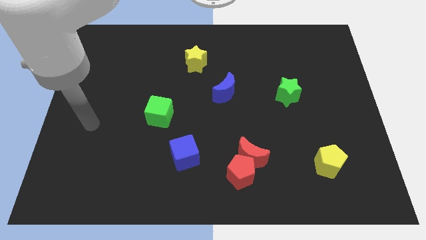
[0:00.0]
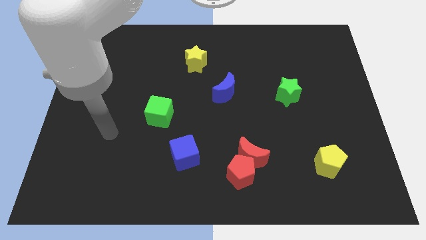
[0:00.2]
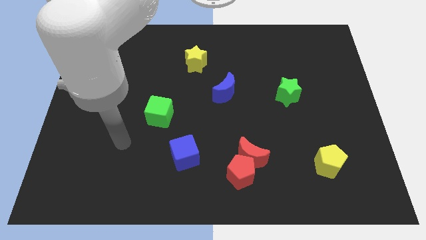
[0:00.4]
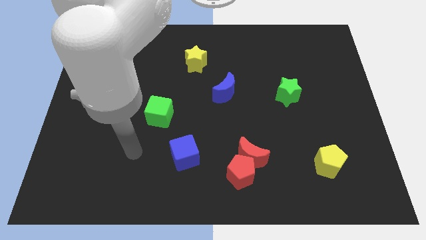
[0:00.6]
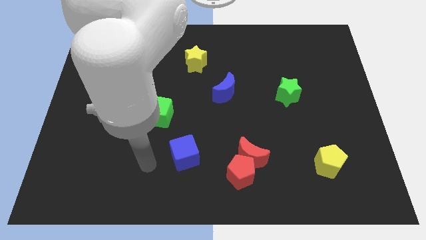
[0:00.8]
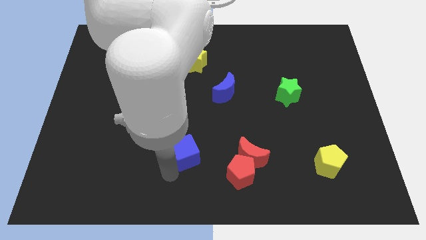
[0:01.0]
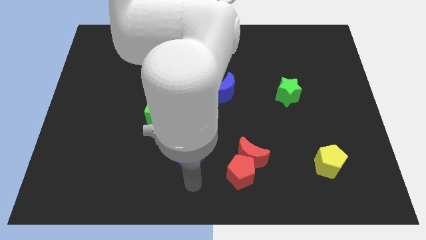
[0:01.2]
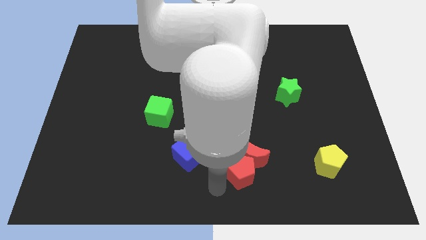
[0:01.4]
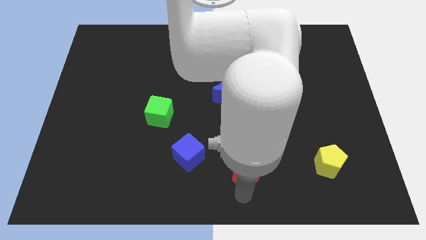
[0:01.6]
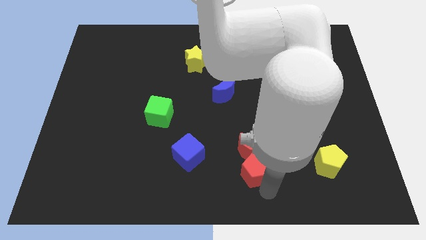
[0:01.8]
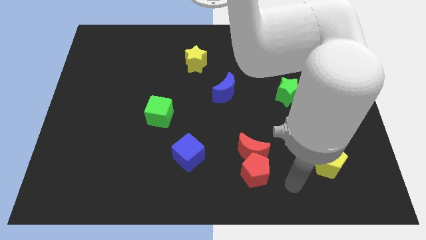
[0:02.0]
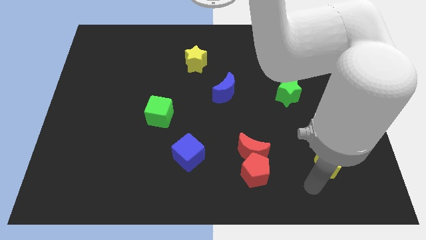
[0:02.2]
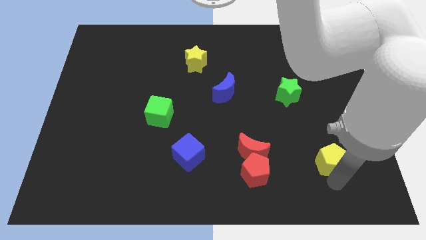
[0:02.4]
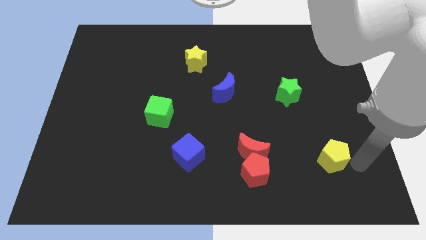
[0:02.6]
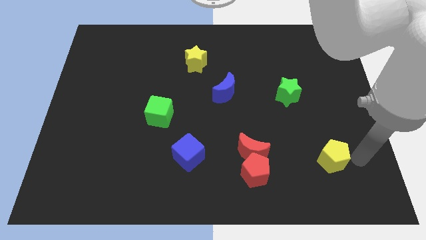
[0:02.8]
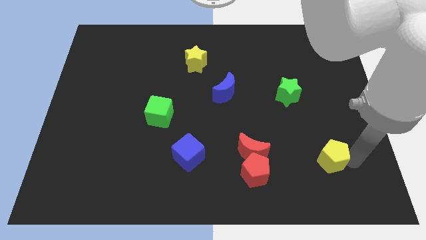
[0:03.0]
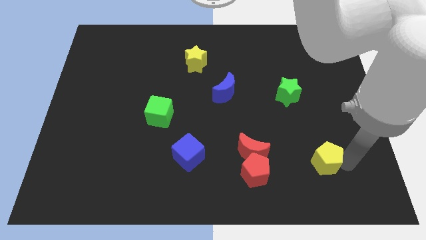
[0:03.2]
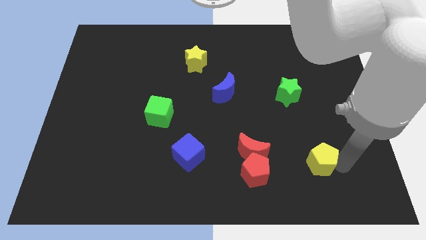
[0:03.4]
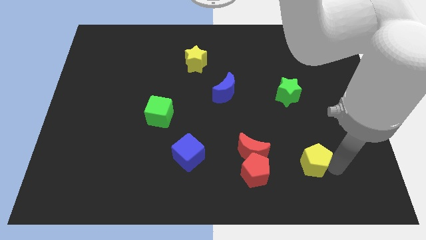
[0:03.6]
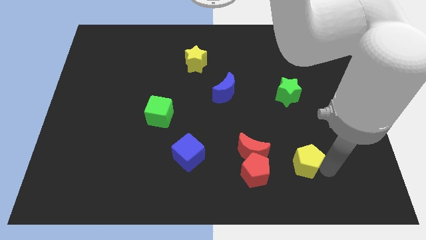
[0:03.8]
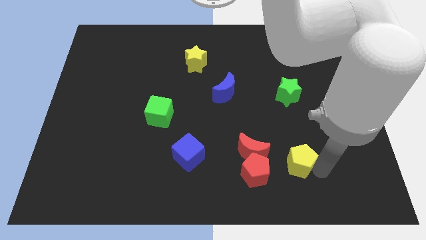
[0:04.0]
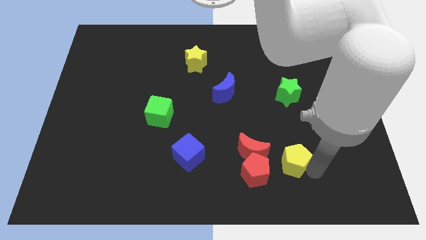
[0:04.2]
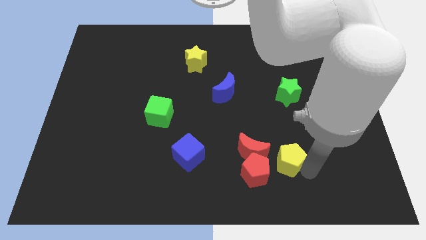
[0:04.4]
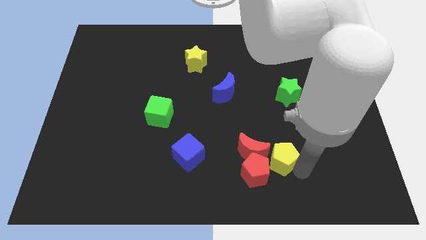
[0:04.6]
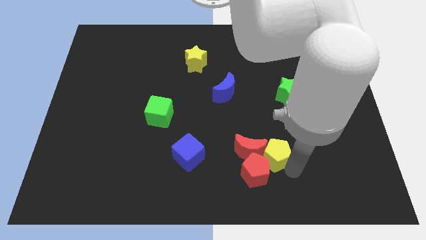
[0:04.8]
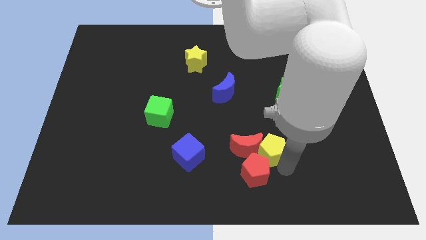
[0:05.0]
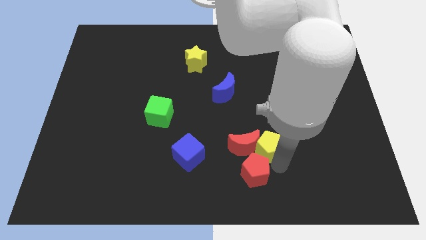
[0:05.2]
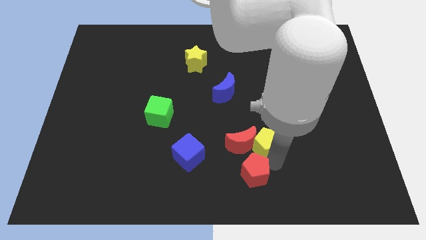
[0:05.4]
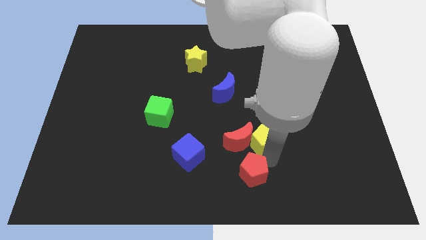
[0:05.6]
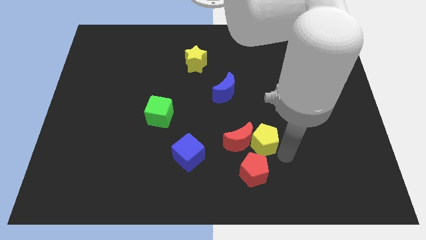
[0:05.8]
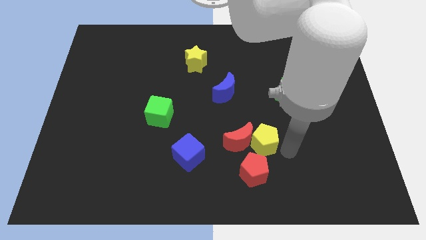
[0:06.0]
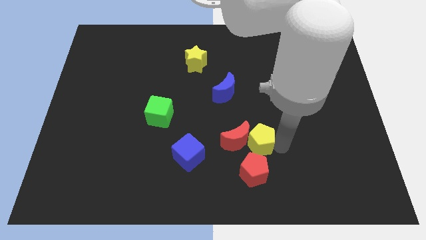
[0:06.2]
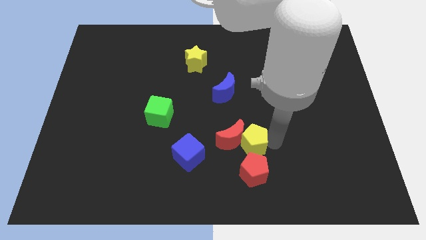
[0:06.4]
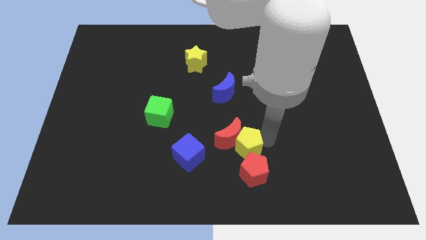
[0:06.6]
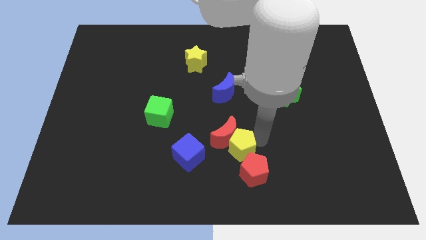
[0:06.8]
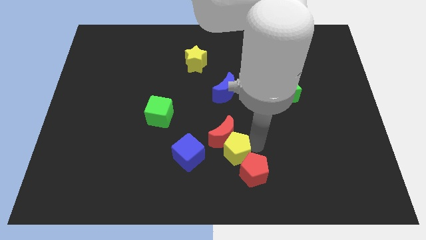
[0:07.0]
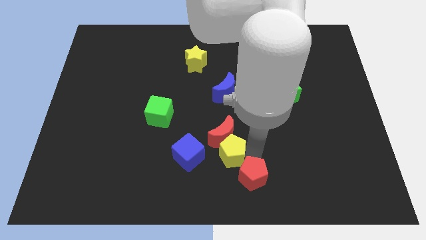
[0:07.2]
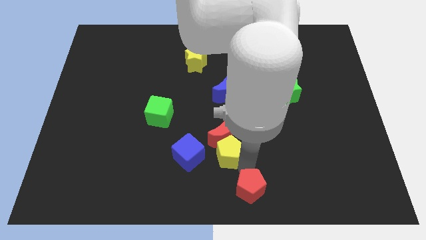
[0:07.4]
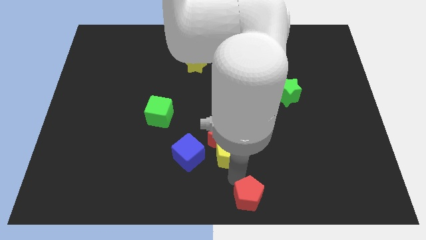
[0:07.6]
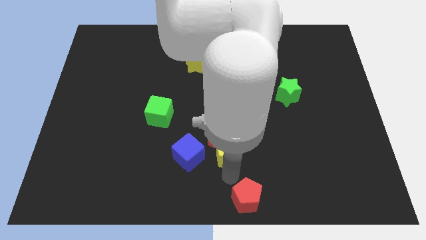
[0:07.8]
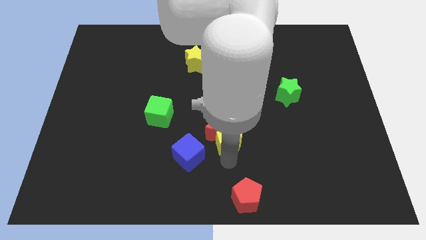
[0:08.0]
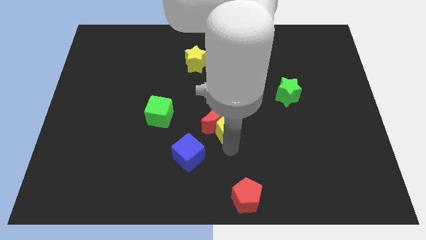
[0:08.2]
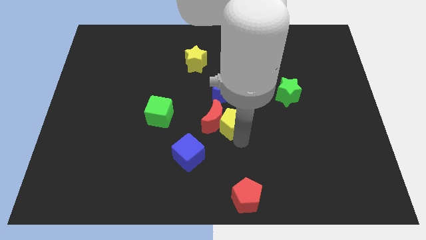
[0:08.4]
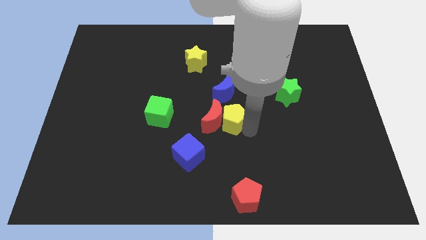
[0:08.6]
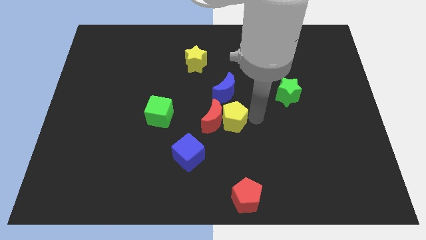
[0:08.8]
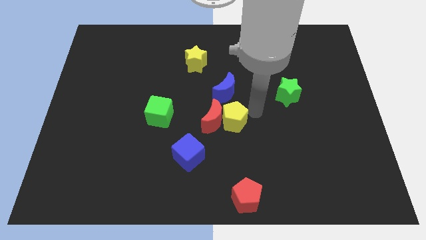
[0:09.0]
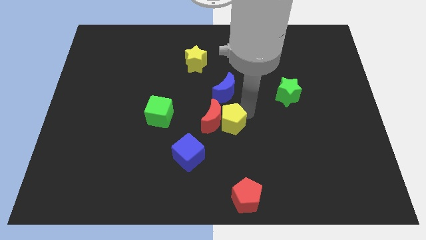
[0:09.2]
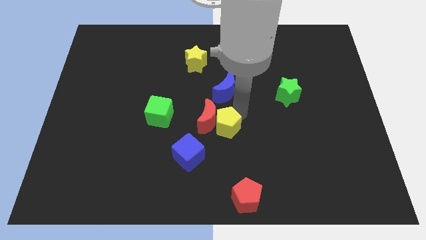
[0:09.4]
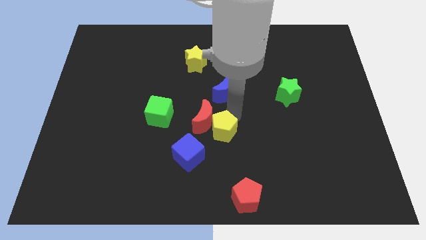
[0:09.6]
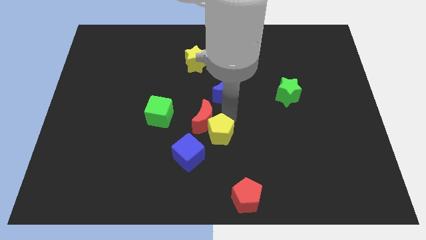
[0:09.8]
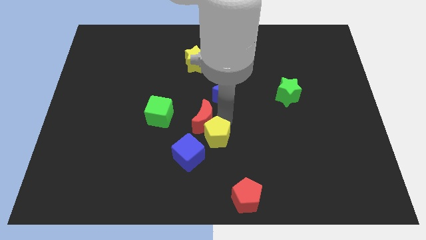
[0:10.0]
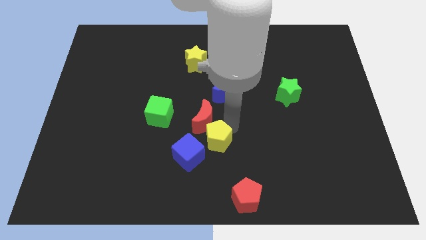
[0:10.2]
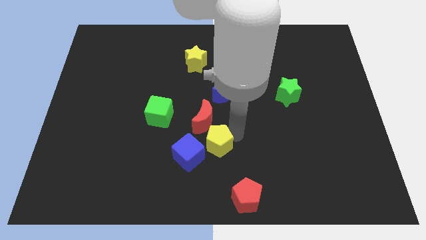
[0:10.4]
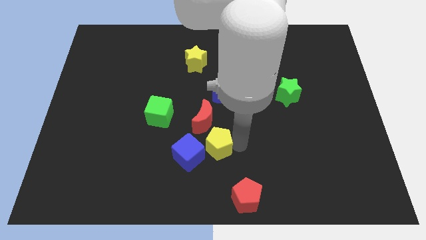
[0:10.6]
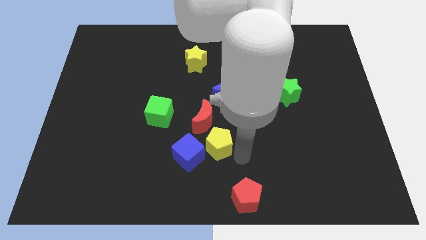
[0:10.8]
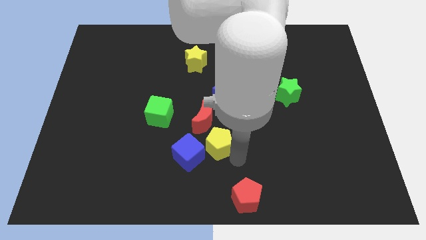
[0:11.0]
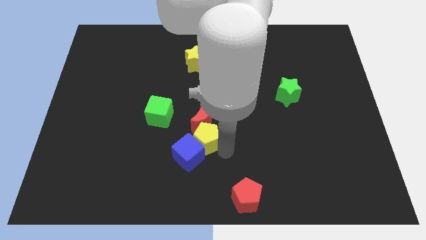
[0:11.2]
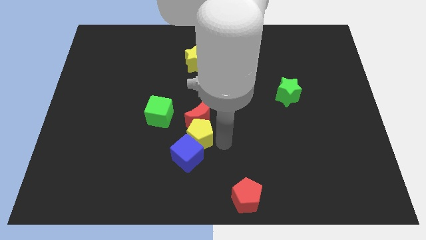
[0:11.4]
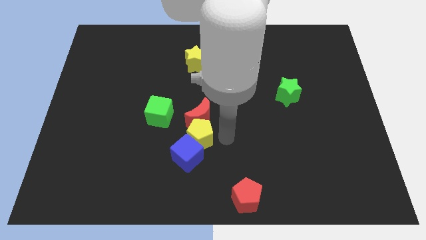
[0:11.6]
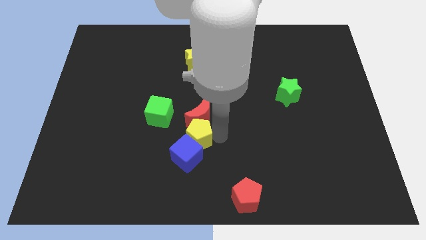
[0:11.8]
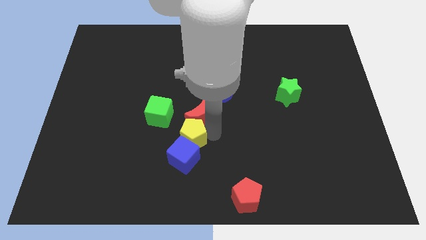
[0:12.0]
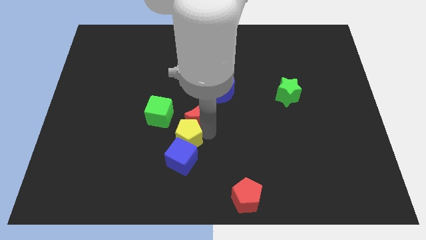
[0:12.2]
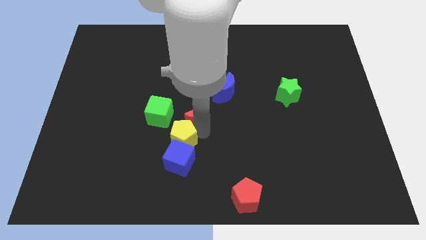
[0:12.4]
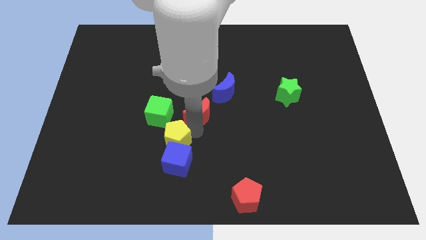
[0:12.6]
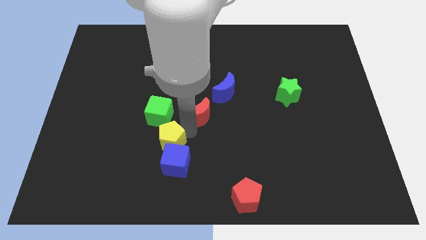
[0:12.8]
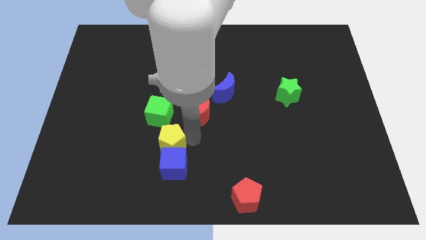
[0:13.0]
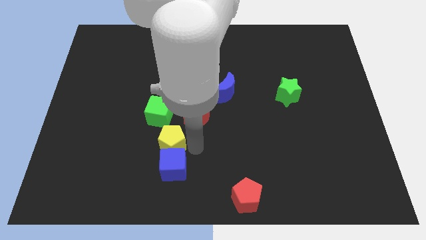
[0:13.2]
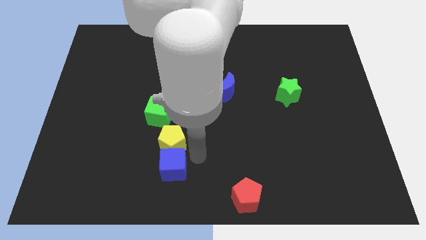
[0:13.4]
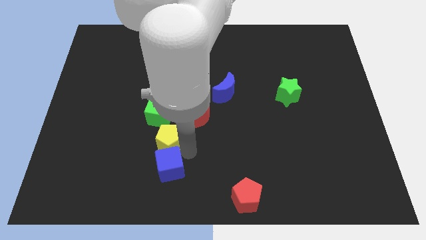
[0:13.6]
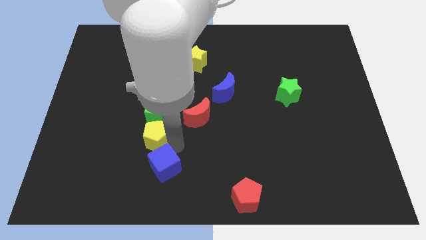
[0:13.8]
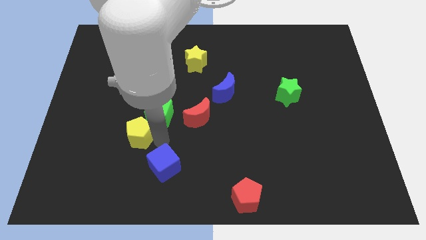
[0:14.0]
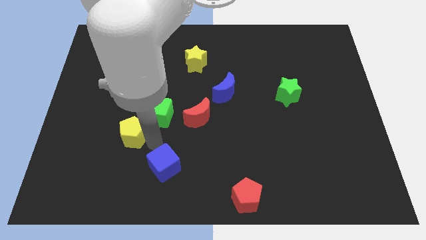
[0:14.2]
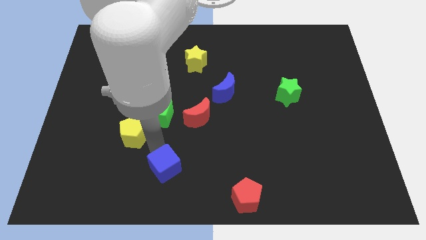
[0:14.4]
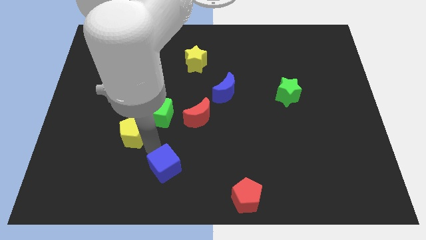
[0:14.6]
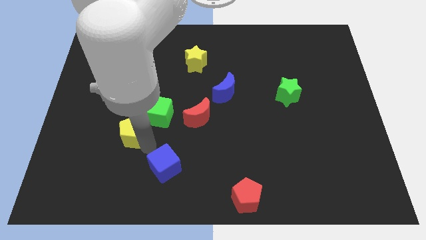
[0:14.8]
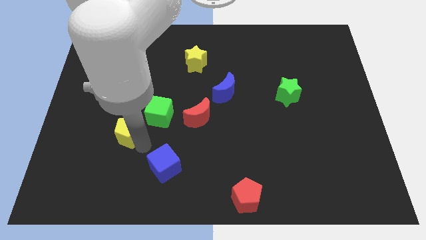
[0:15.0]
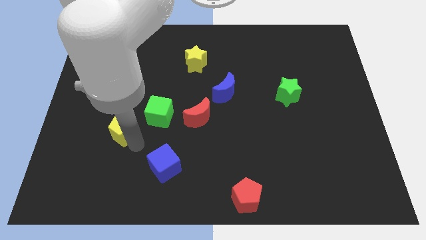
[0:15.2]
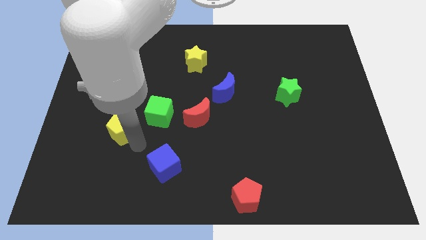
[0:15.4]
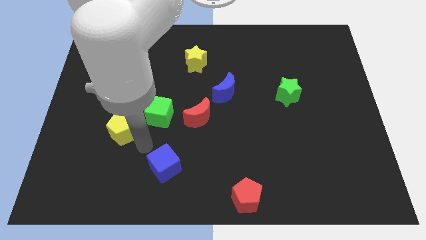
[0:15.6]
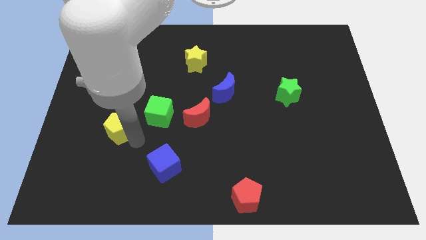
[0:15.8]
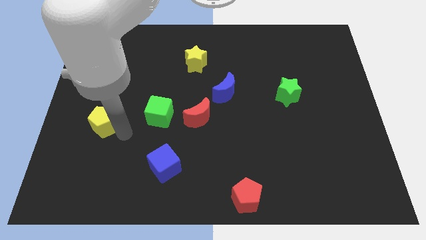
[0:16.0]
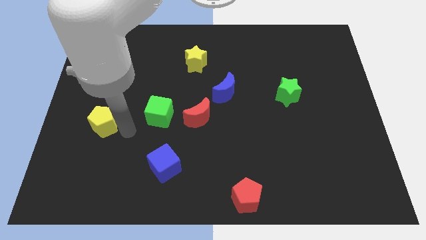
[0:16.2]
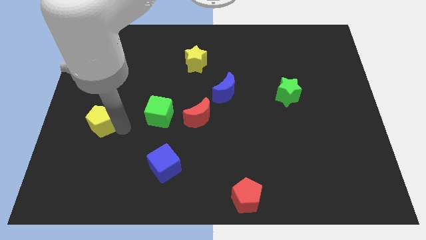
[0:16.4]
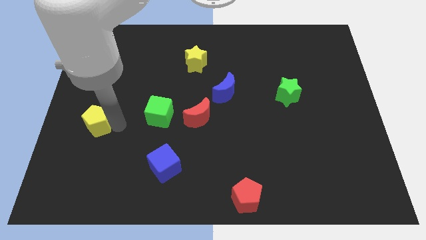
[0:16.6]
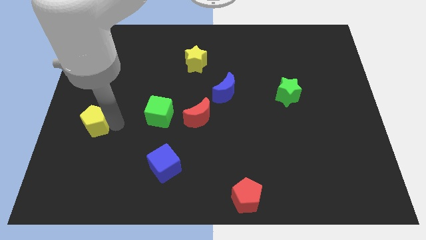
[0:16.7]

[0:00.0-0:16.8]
put the yellow pentagon to the left side of the board
